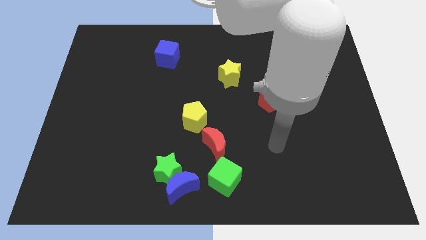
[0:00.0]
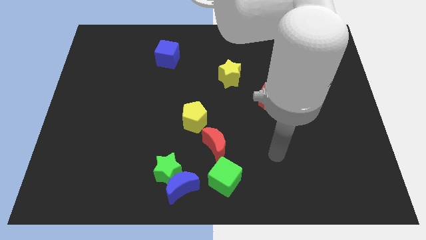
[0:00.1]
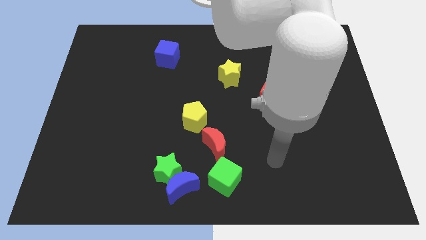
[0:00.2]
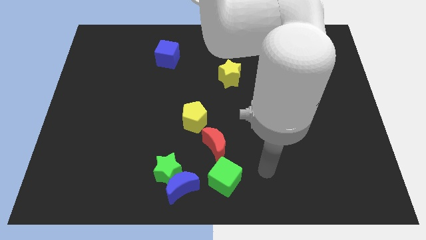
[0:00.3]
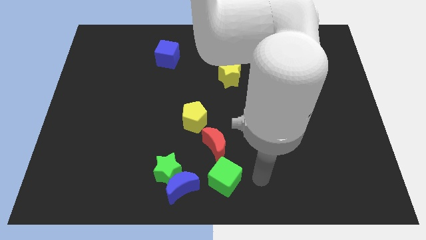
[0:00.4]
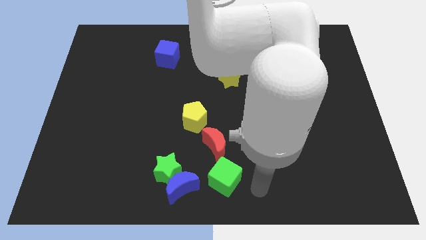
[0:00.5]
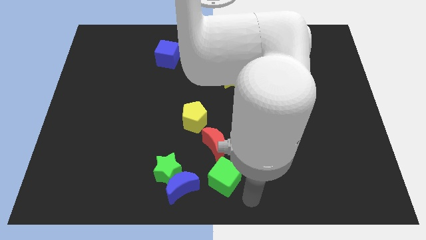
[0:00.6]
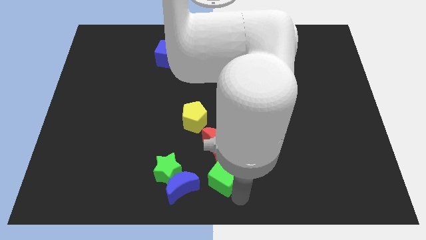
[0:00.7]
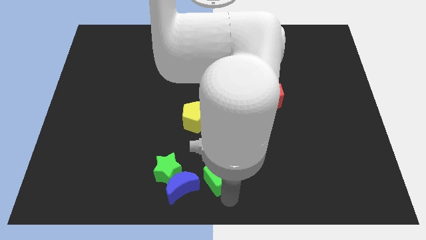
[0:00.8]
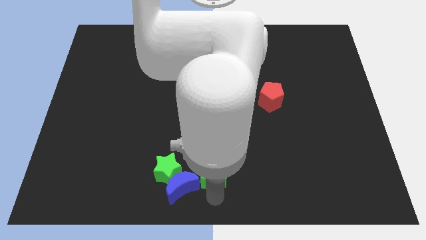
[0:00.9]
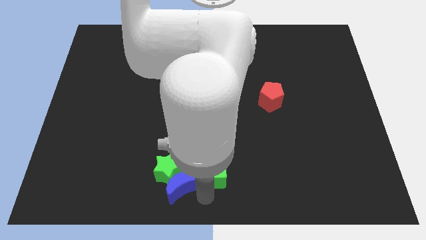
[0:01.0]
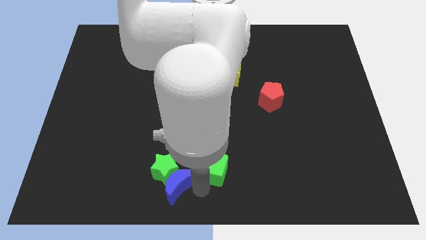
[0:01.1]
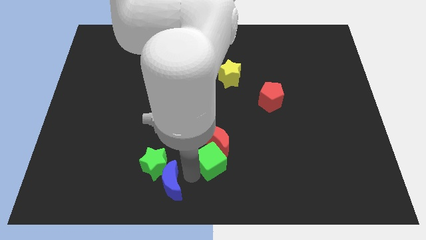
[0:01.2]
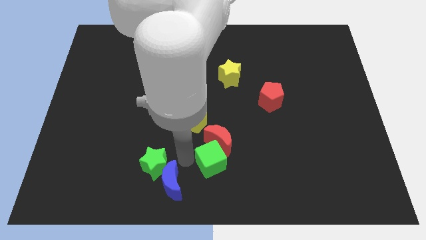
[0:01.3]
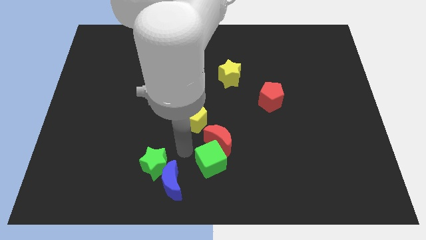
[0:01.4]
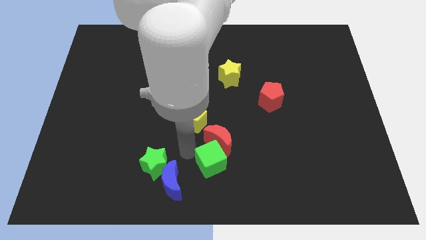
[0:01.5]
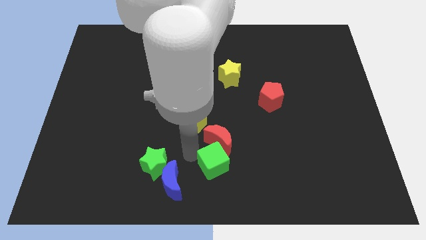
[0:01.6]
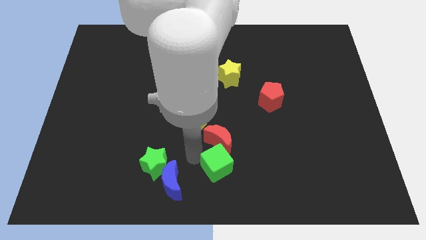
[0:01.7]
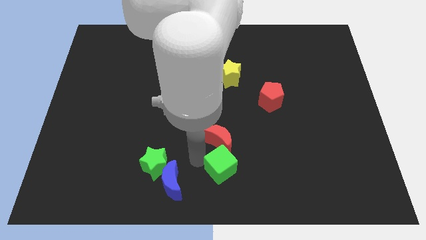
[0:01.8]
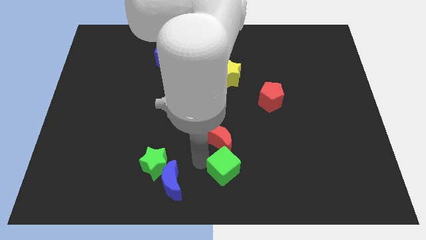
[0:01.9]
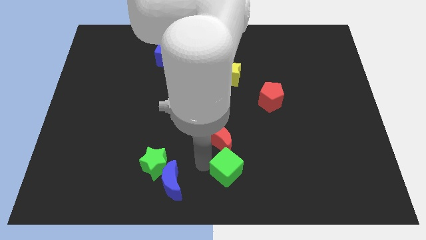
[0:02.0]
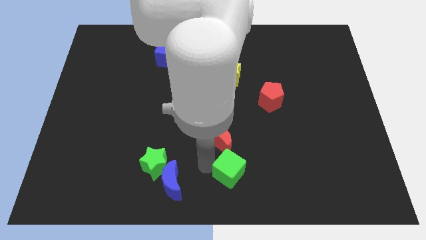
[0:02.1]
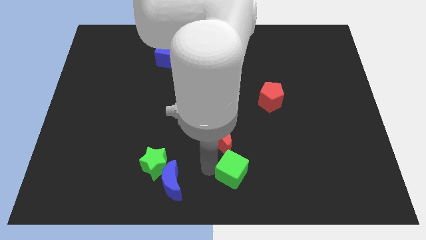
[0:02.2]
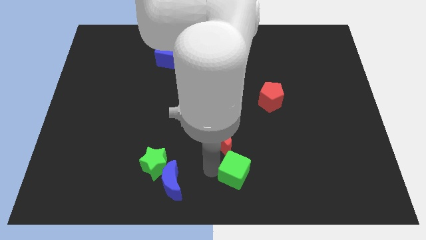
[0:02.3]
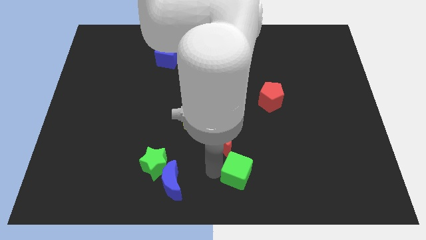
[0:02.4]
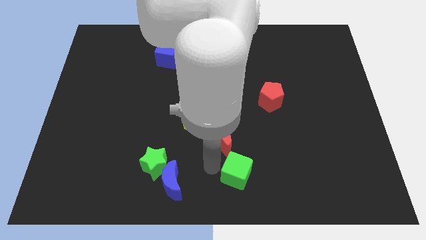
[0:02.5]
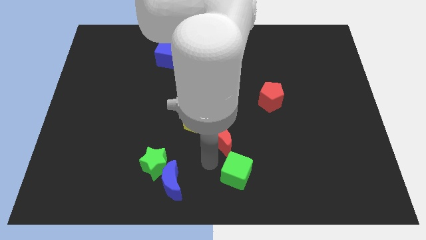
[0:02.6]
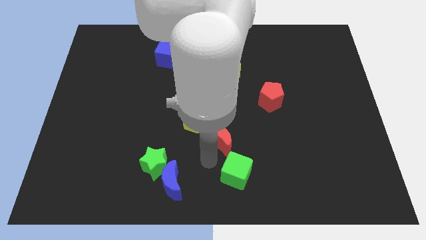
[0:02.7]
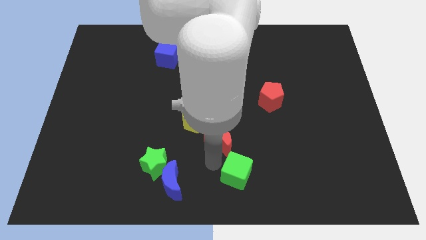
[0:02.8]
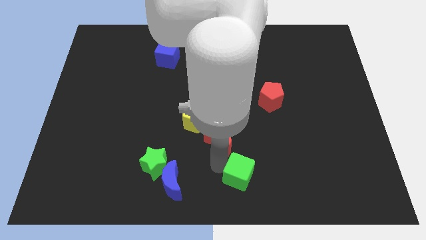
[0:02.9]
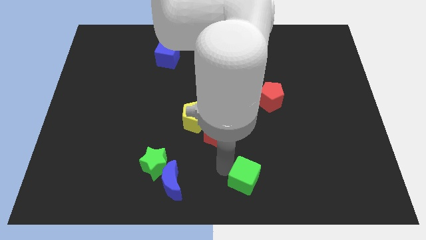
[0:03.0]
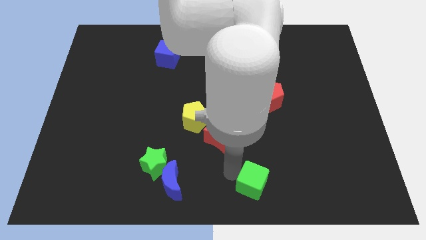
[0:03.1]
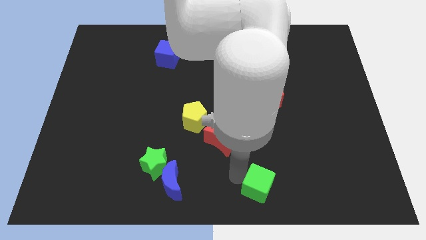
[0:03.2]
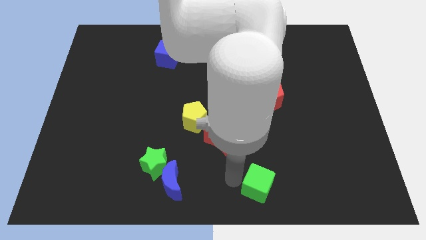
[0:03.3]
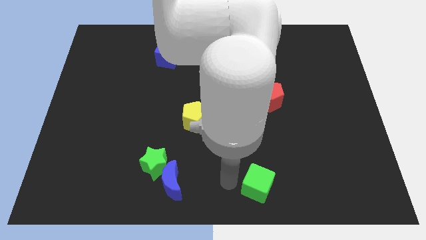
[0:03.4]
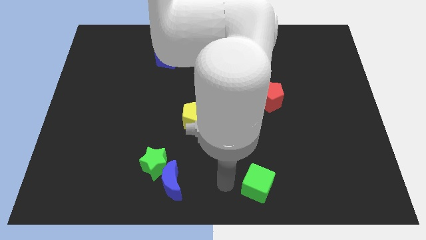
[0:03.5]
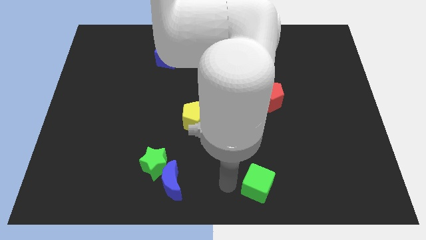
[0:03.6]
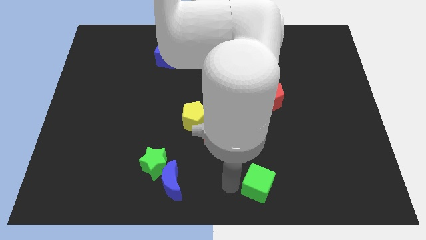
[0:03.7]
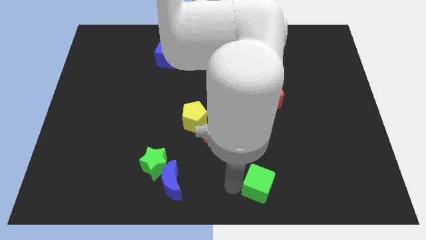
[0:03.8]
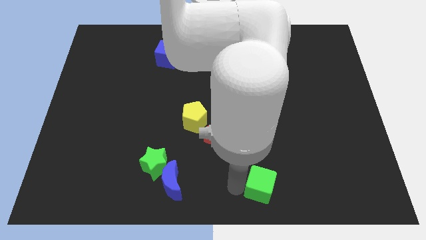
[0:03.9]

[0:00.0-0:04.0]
push the green cube a little bit right

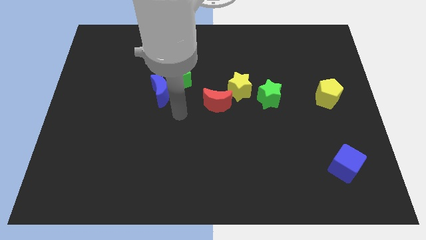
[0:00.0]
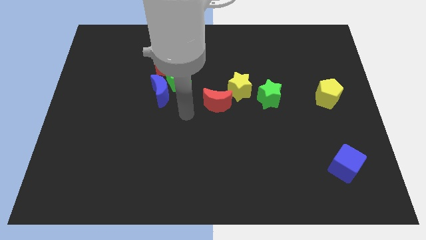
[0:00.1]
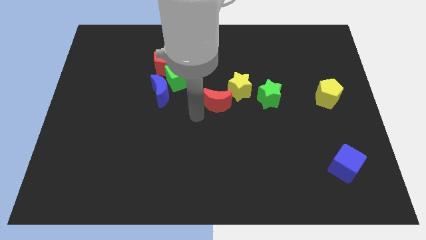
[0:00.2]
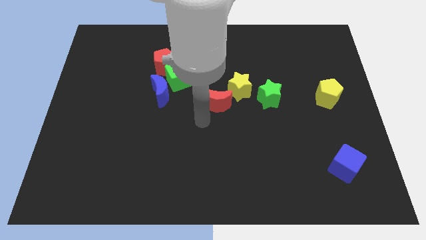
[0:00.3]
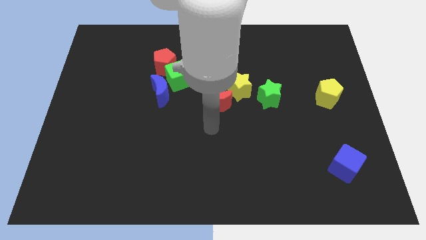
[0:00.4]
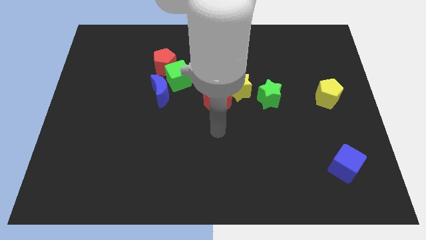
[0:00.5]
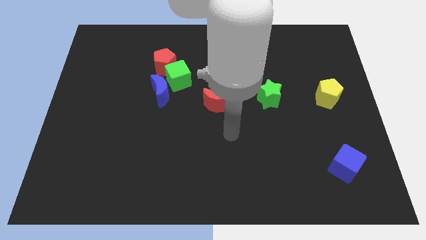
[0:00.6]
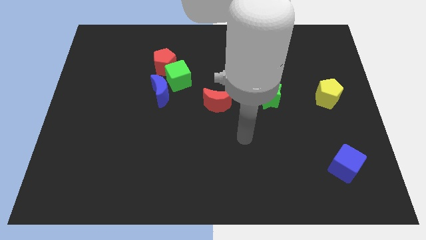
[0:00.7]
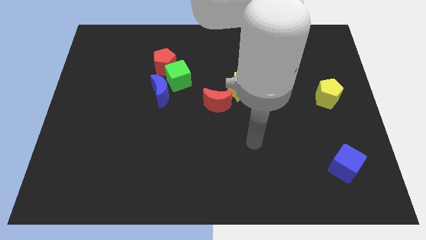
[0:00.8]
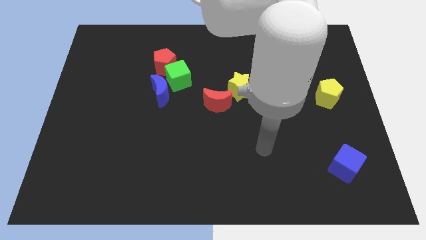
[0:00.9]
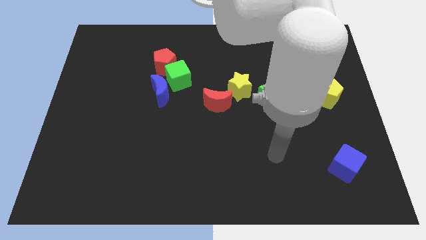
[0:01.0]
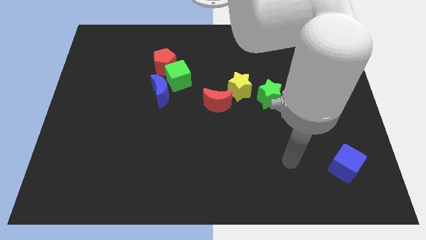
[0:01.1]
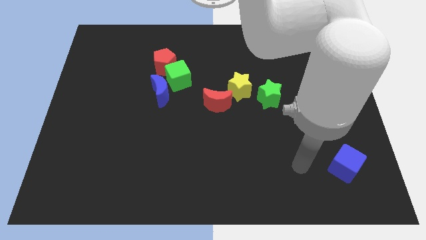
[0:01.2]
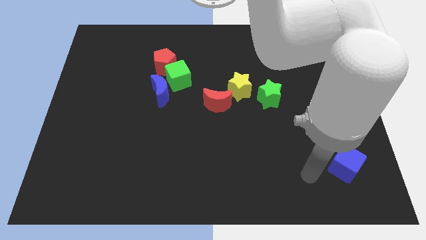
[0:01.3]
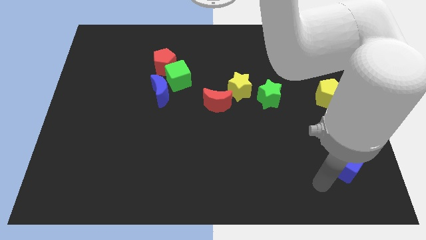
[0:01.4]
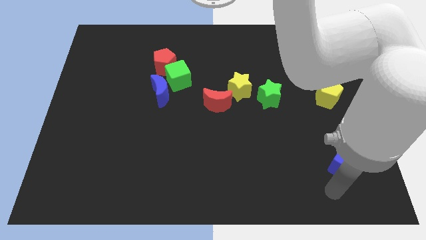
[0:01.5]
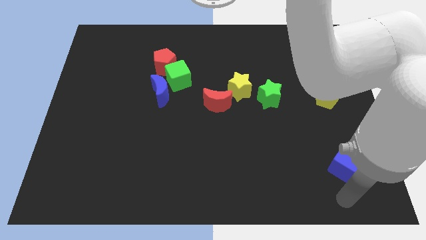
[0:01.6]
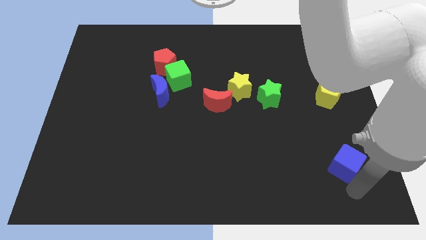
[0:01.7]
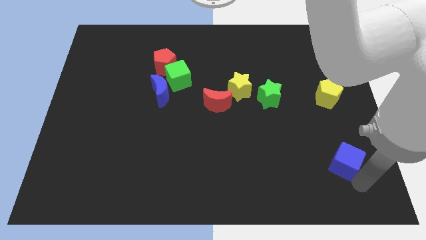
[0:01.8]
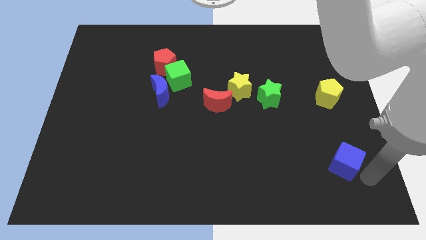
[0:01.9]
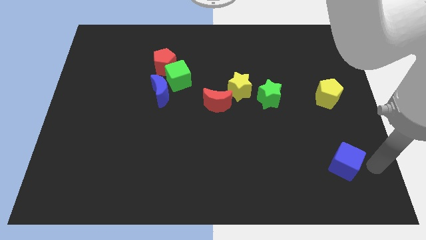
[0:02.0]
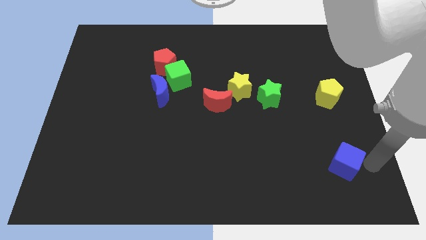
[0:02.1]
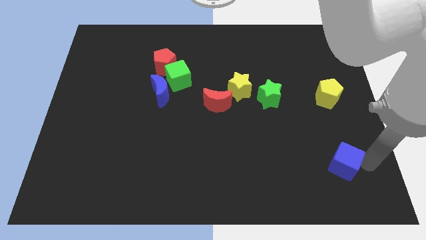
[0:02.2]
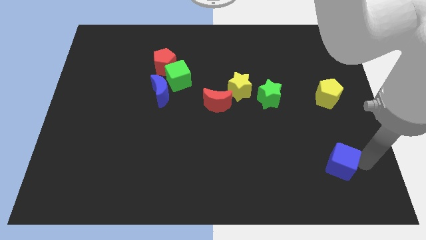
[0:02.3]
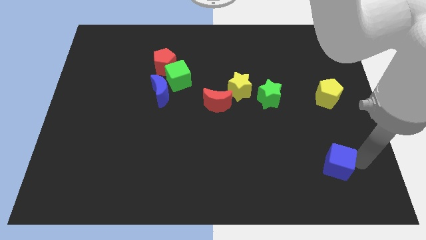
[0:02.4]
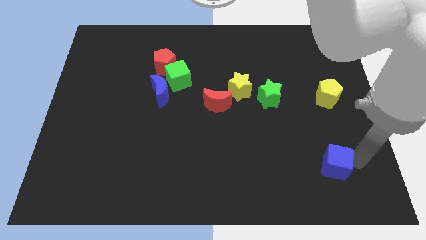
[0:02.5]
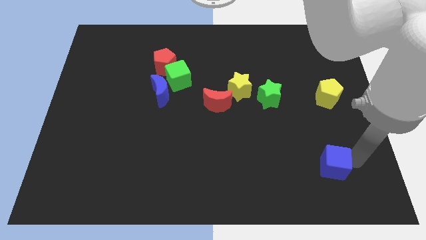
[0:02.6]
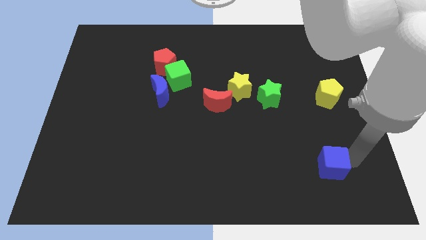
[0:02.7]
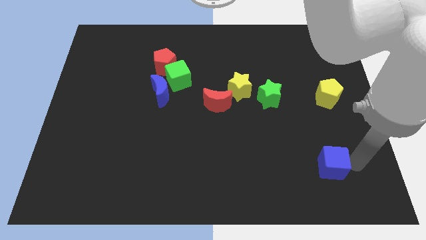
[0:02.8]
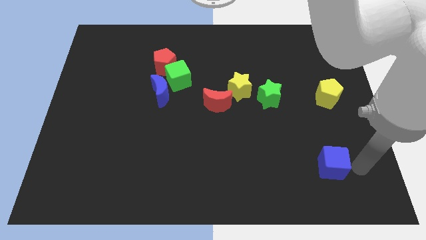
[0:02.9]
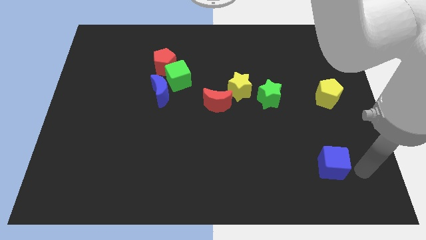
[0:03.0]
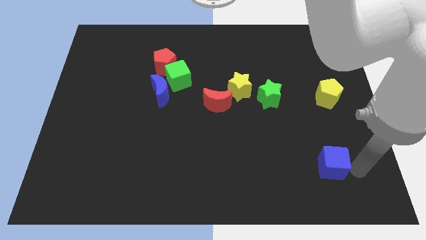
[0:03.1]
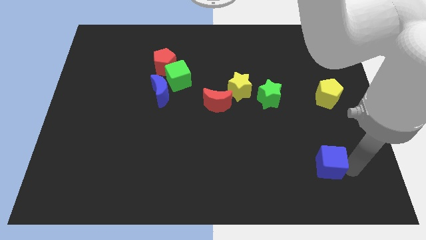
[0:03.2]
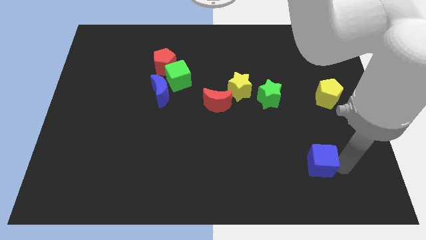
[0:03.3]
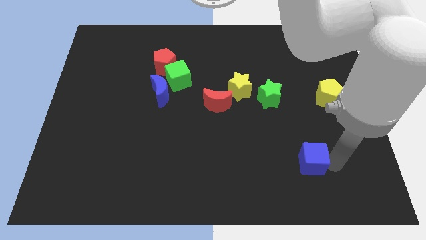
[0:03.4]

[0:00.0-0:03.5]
slightly push the blue cube left

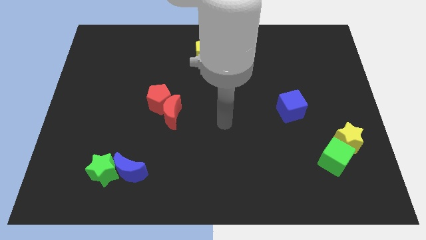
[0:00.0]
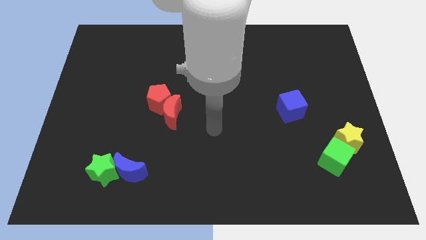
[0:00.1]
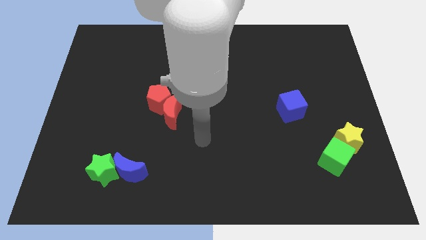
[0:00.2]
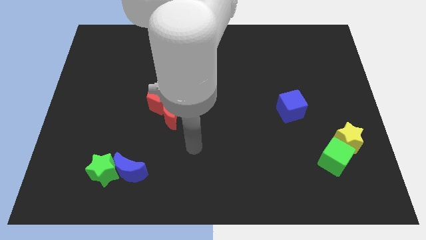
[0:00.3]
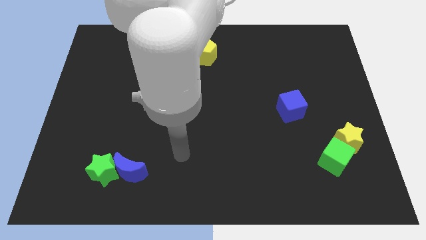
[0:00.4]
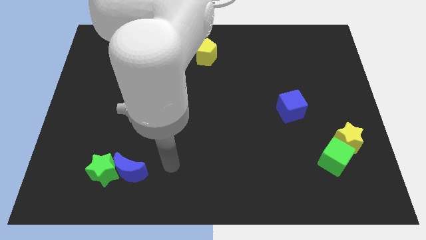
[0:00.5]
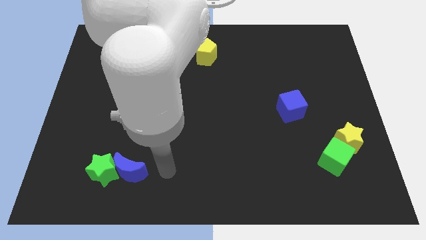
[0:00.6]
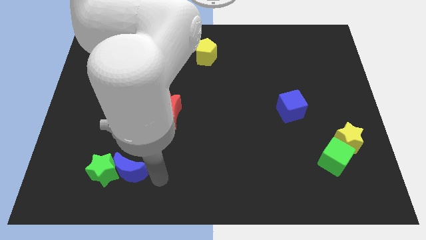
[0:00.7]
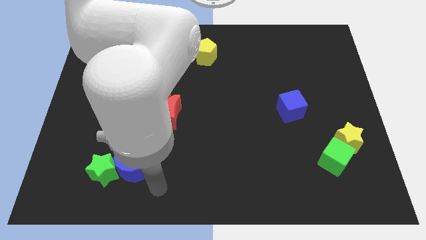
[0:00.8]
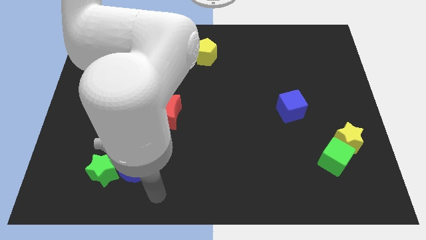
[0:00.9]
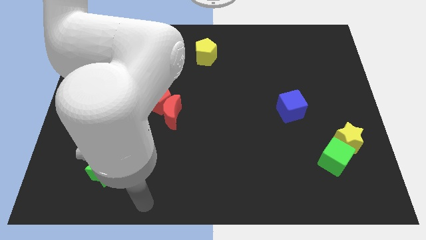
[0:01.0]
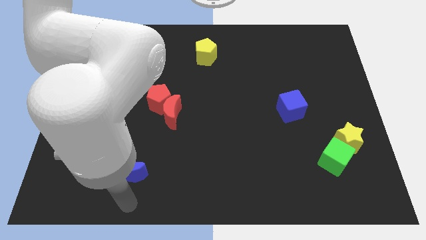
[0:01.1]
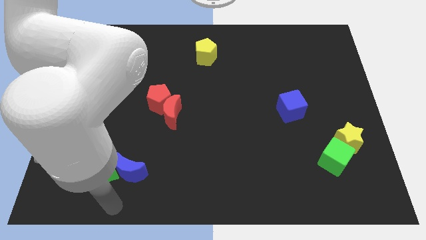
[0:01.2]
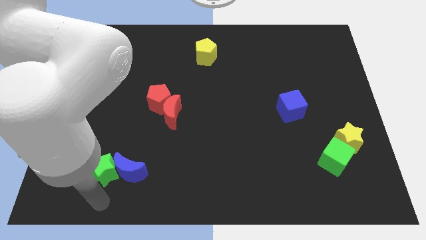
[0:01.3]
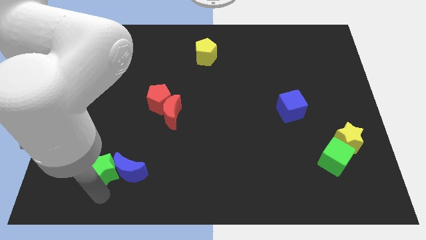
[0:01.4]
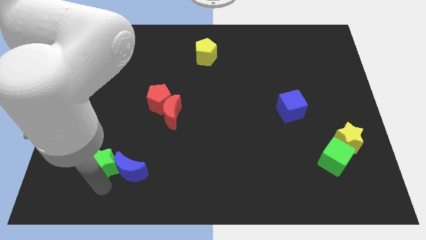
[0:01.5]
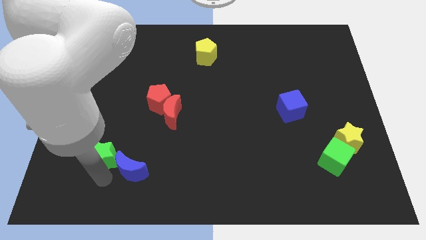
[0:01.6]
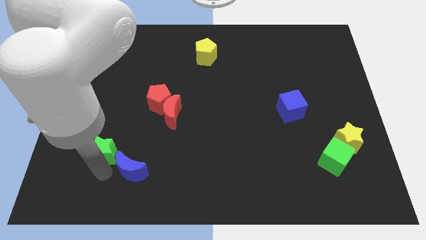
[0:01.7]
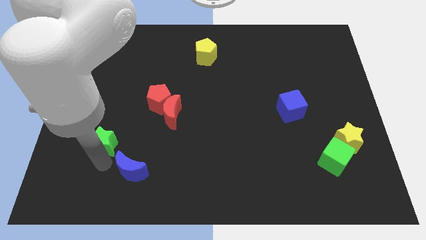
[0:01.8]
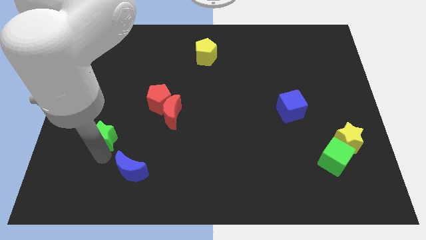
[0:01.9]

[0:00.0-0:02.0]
push the green star a bit up
